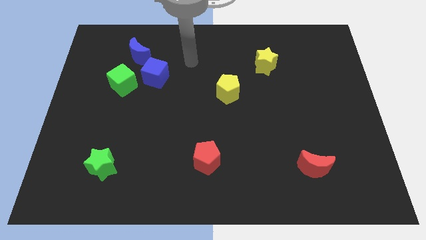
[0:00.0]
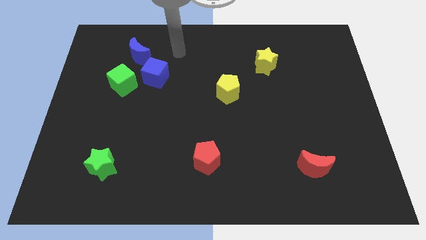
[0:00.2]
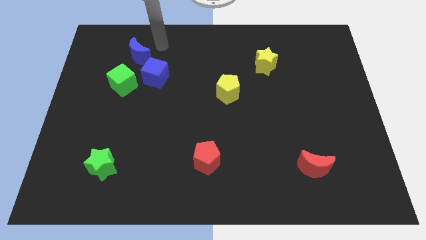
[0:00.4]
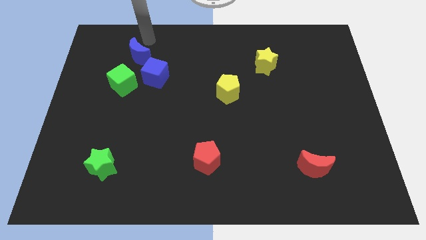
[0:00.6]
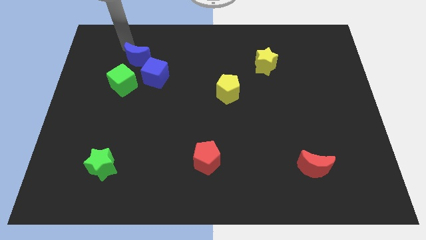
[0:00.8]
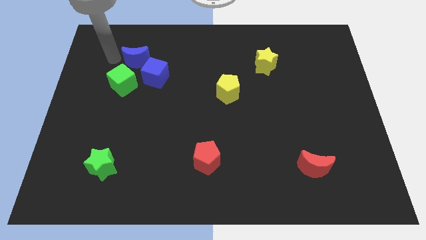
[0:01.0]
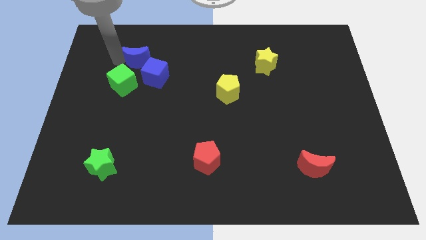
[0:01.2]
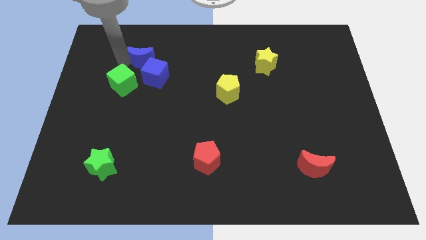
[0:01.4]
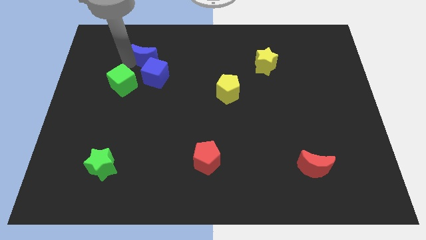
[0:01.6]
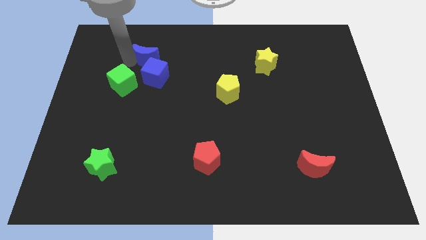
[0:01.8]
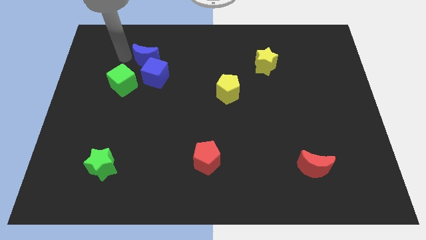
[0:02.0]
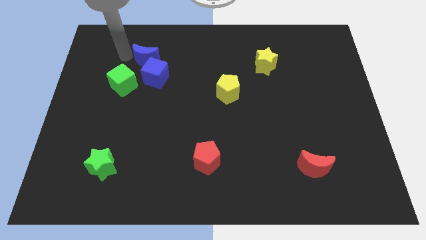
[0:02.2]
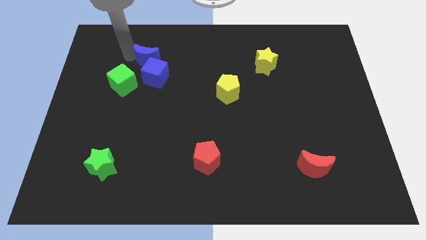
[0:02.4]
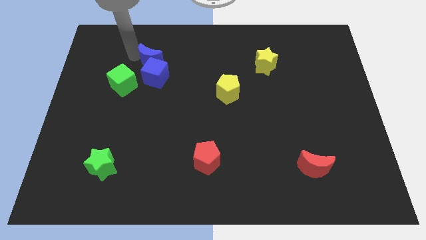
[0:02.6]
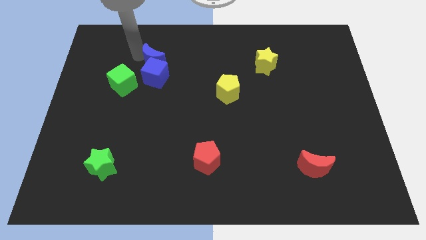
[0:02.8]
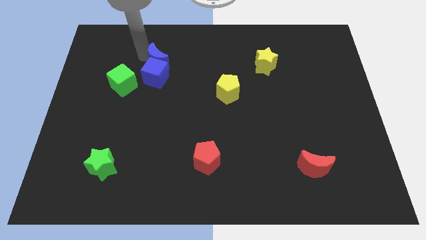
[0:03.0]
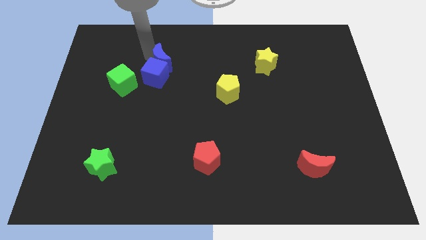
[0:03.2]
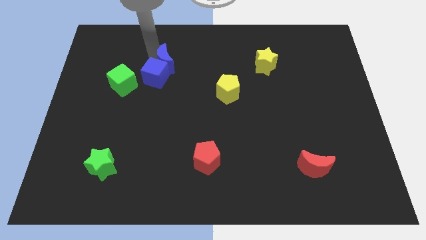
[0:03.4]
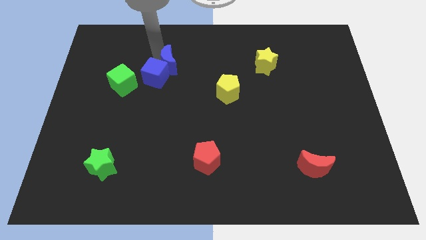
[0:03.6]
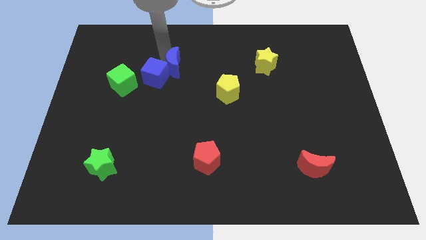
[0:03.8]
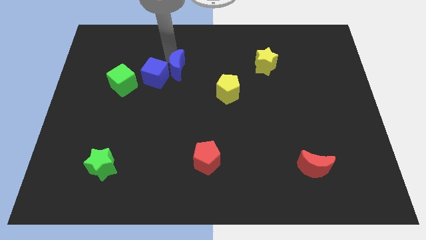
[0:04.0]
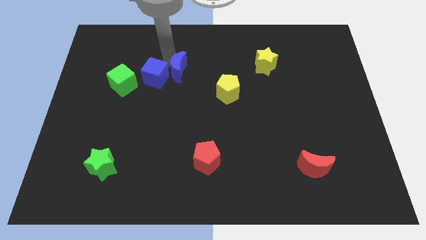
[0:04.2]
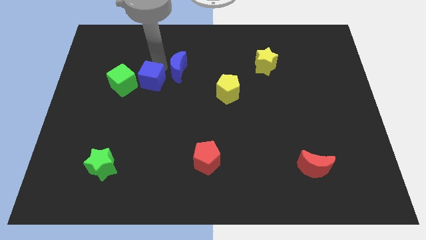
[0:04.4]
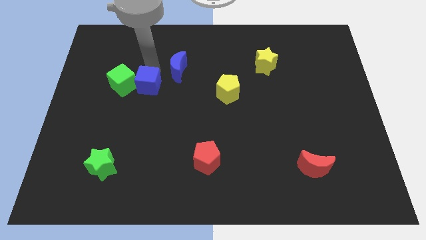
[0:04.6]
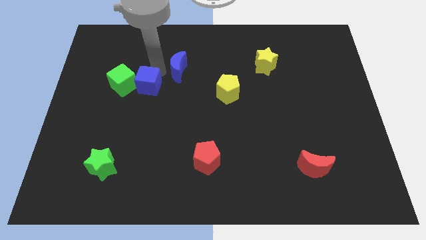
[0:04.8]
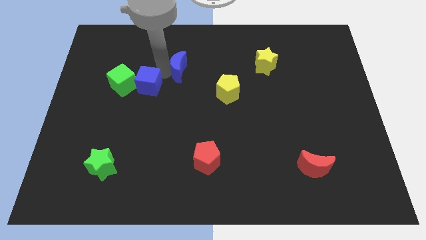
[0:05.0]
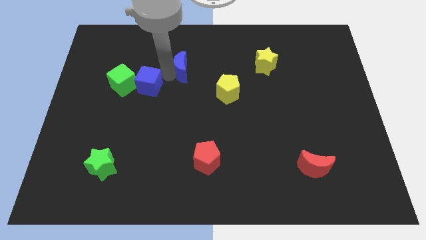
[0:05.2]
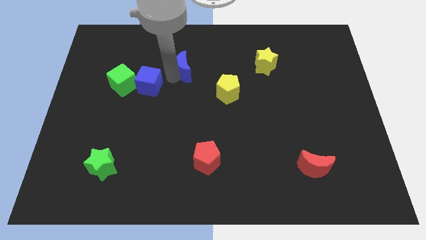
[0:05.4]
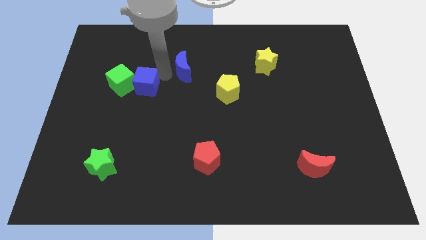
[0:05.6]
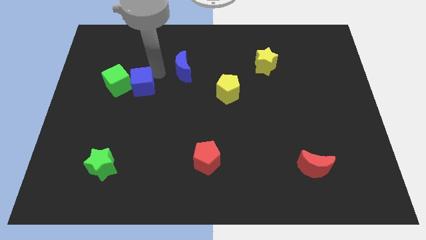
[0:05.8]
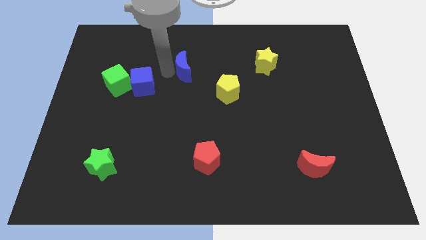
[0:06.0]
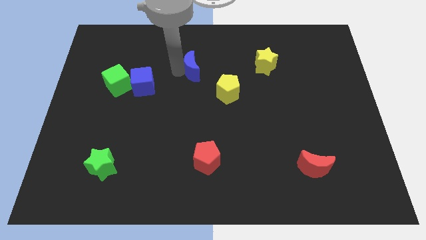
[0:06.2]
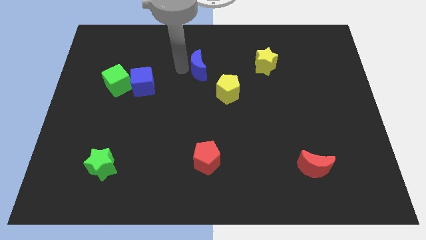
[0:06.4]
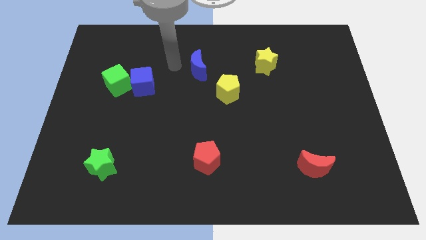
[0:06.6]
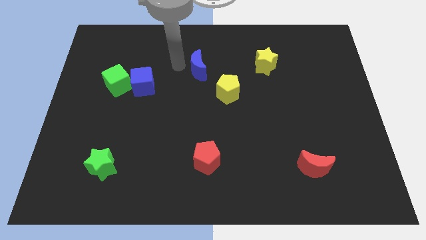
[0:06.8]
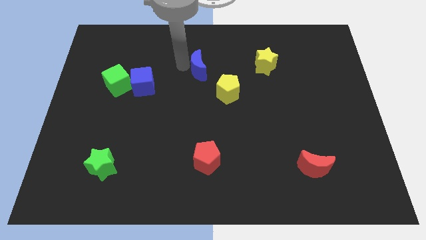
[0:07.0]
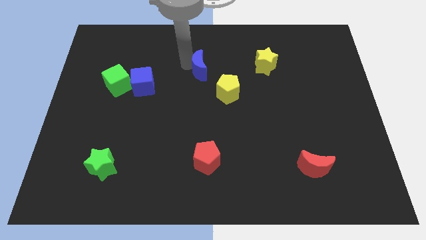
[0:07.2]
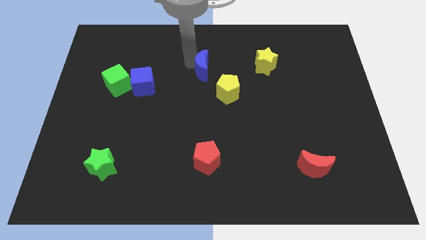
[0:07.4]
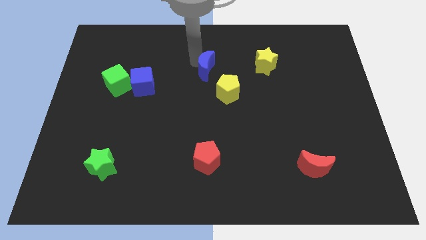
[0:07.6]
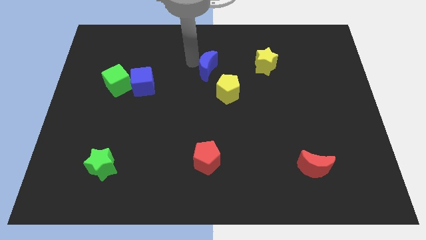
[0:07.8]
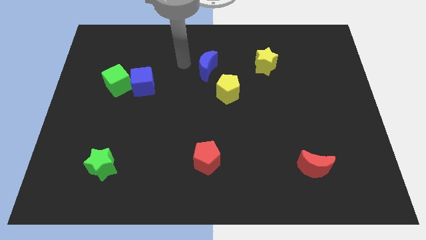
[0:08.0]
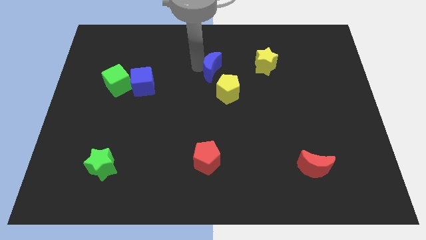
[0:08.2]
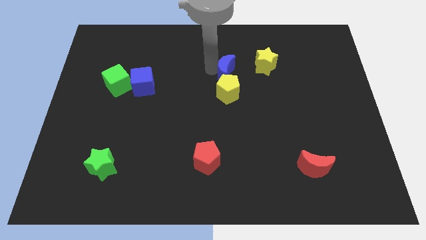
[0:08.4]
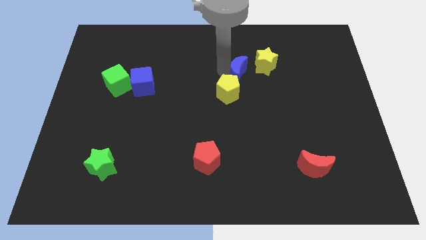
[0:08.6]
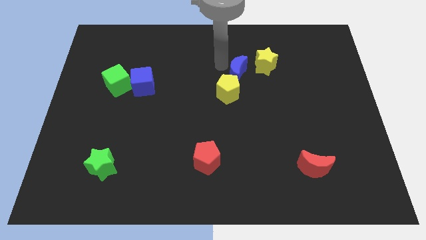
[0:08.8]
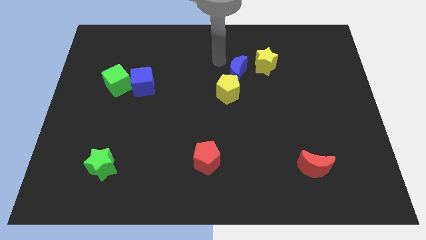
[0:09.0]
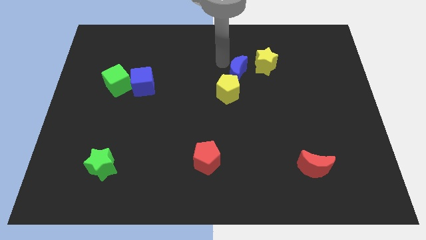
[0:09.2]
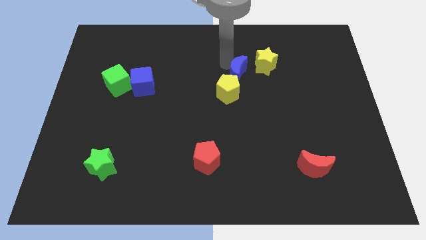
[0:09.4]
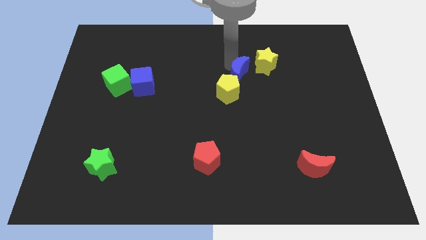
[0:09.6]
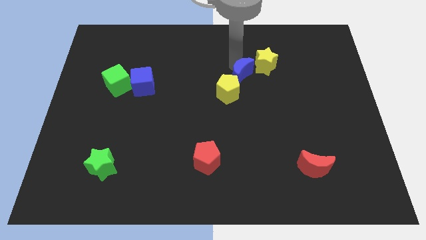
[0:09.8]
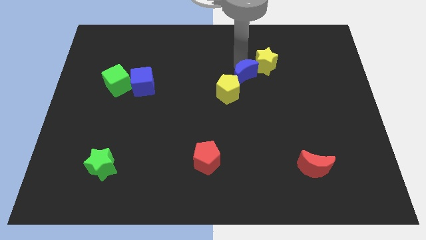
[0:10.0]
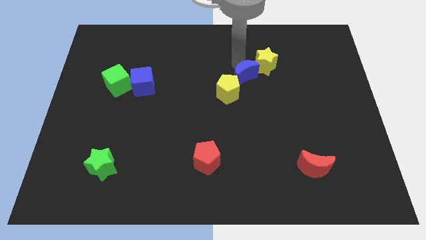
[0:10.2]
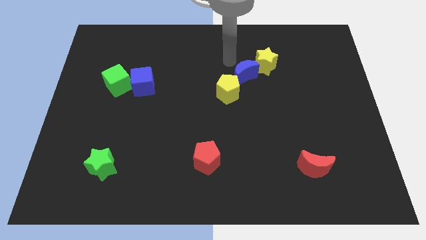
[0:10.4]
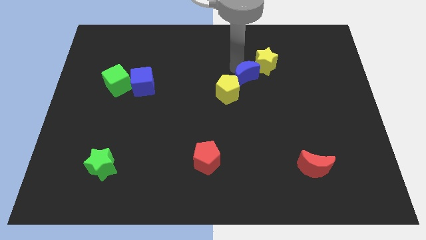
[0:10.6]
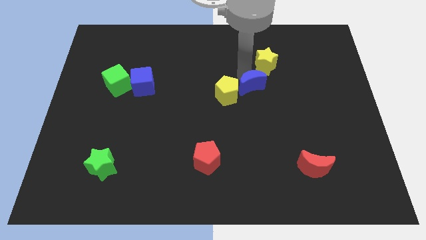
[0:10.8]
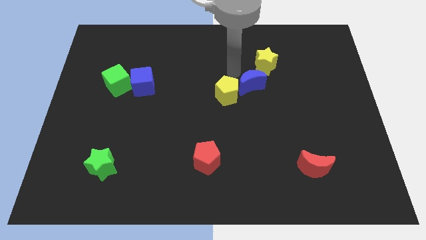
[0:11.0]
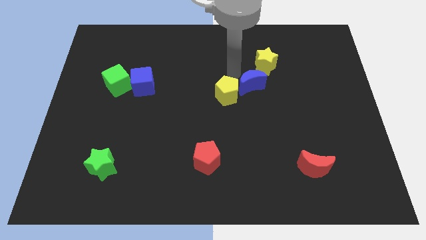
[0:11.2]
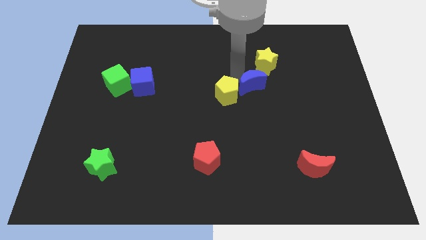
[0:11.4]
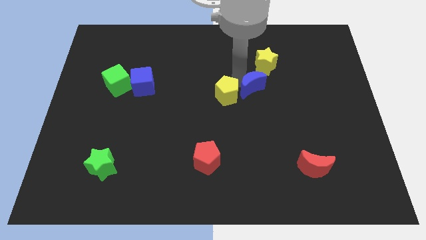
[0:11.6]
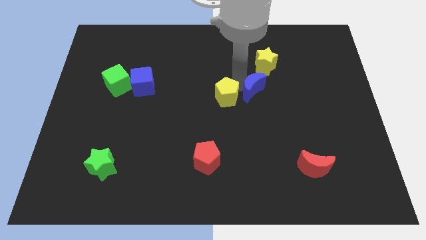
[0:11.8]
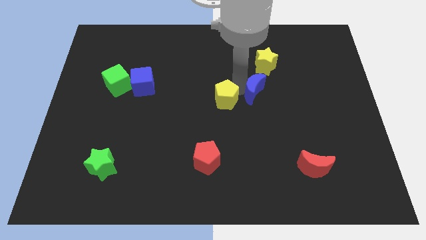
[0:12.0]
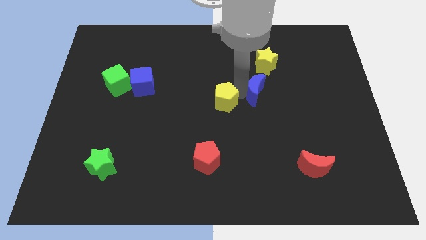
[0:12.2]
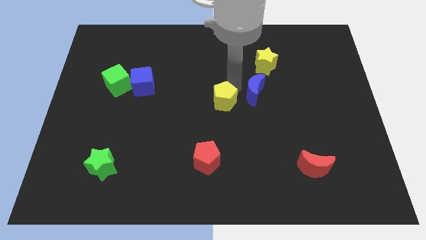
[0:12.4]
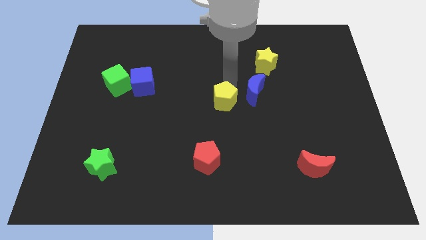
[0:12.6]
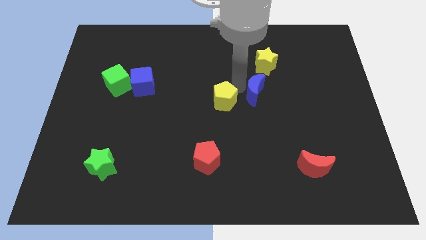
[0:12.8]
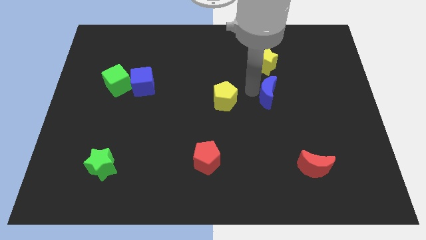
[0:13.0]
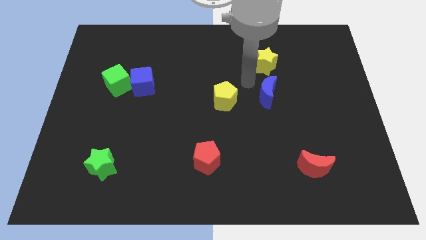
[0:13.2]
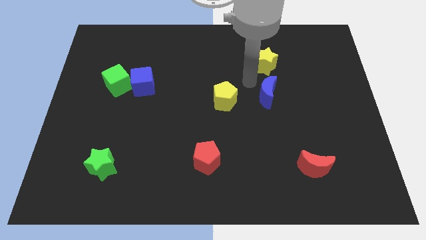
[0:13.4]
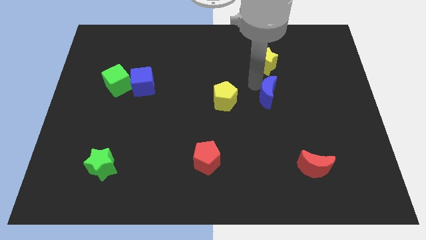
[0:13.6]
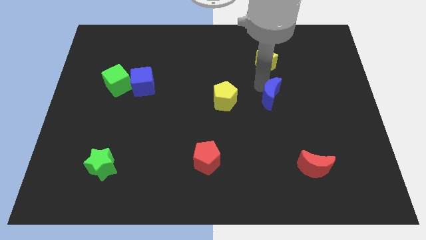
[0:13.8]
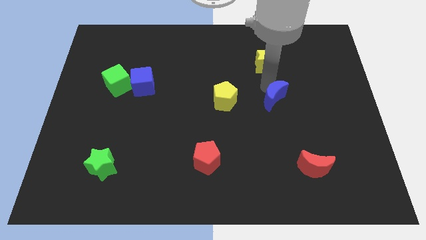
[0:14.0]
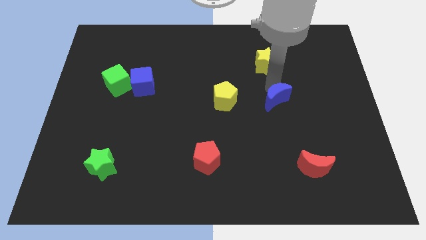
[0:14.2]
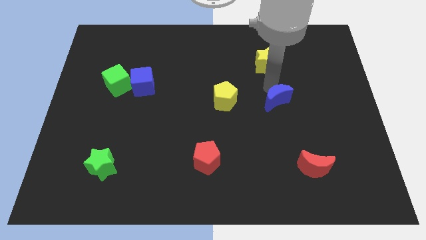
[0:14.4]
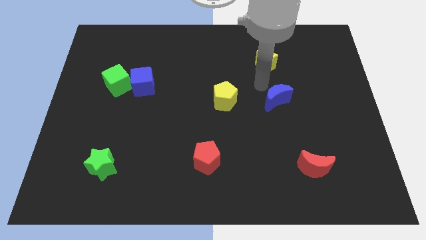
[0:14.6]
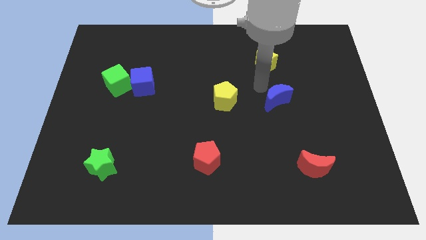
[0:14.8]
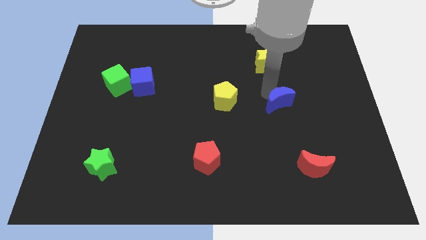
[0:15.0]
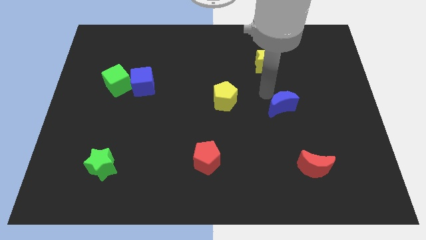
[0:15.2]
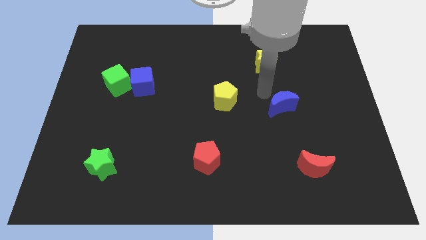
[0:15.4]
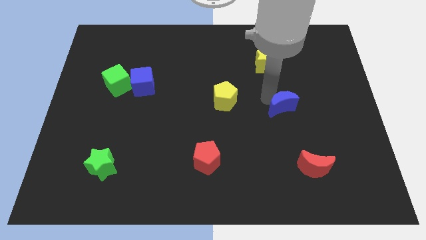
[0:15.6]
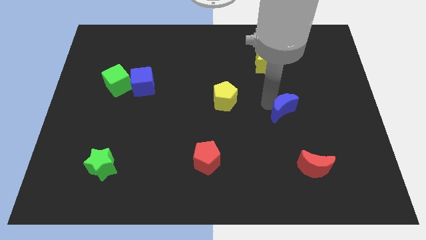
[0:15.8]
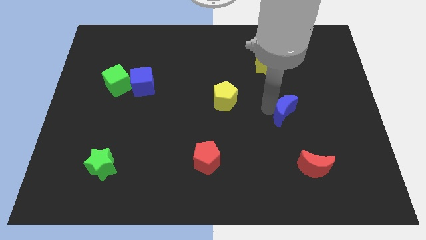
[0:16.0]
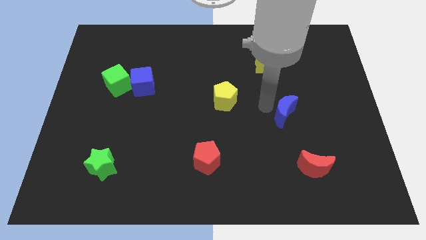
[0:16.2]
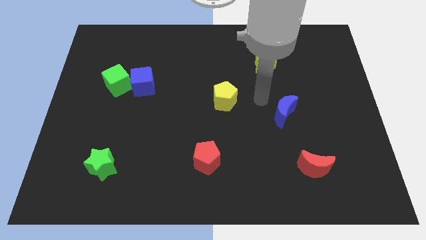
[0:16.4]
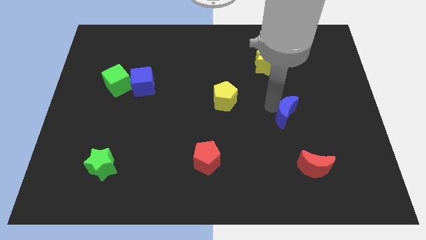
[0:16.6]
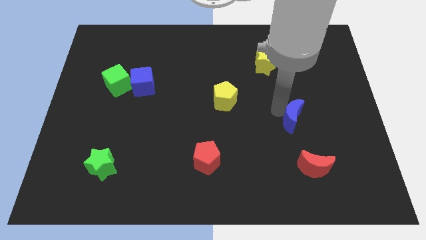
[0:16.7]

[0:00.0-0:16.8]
push the blue moon to the top of the red moon
